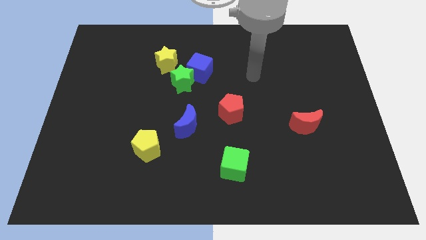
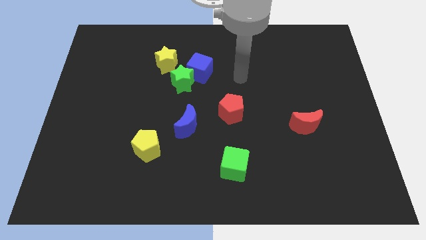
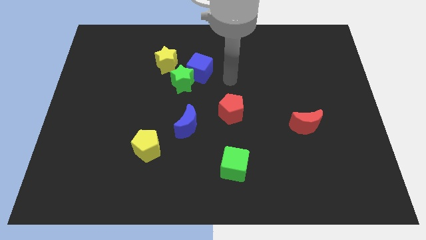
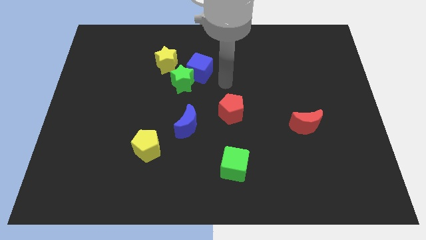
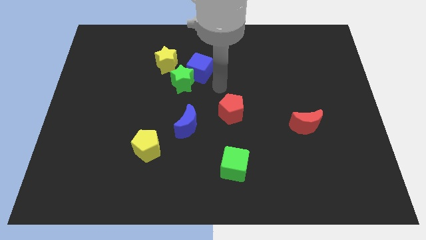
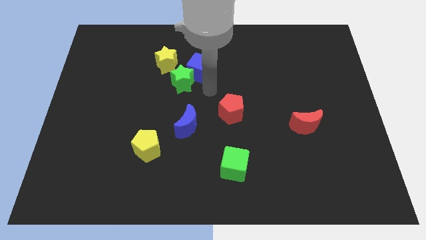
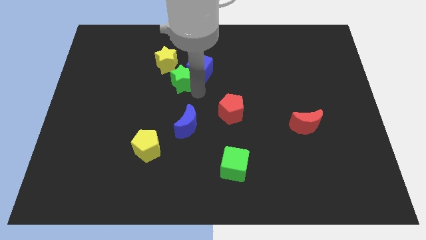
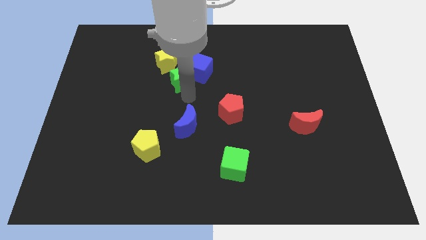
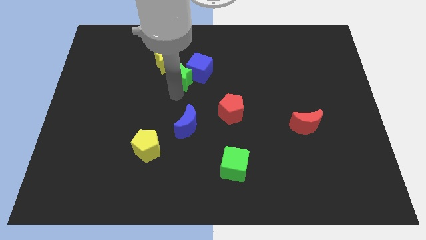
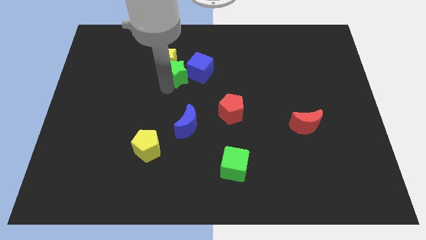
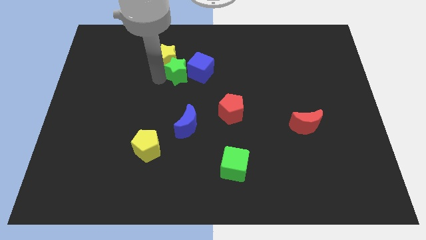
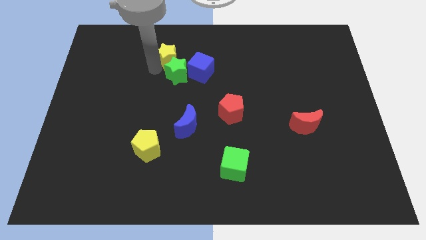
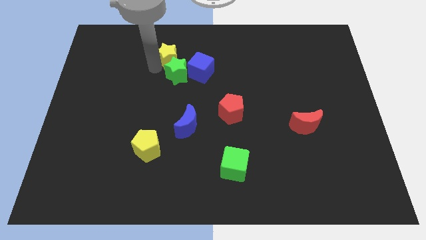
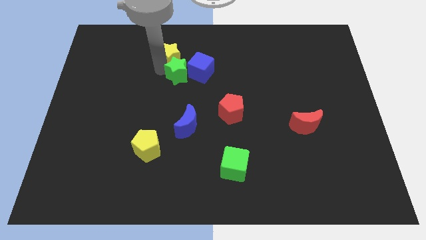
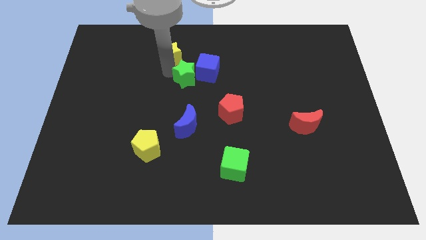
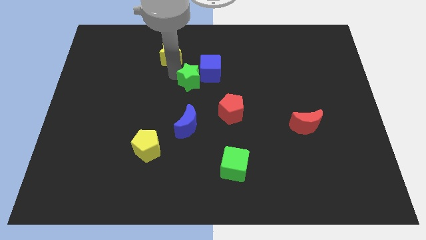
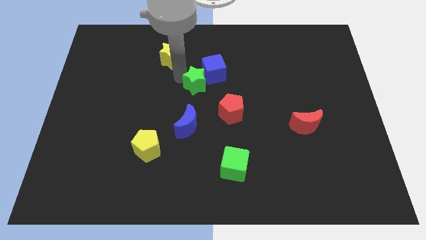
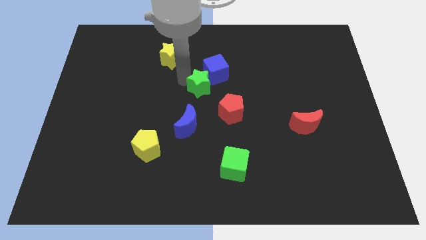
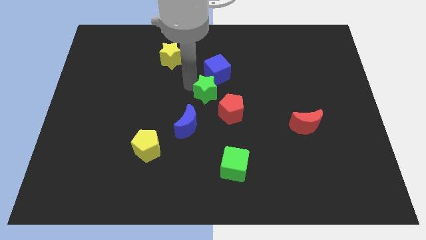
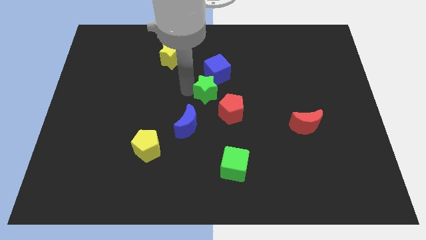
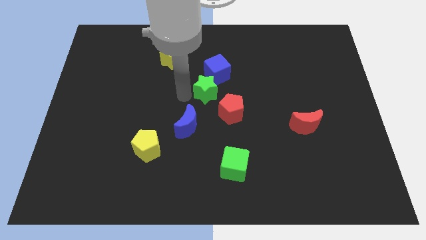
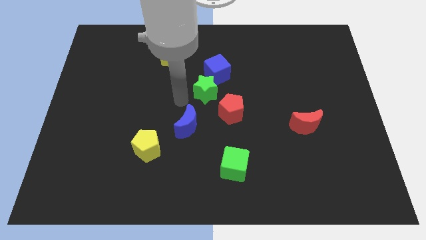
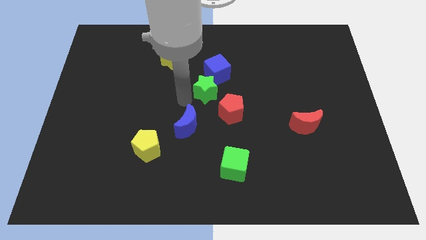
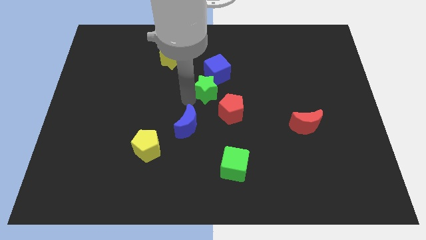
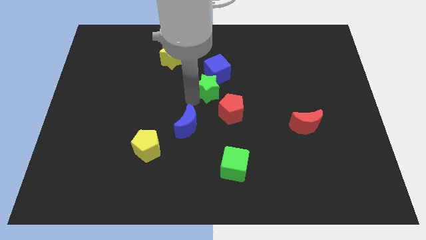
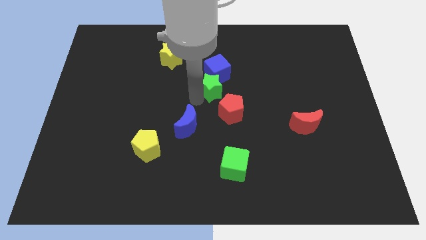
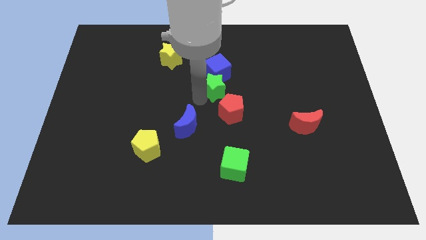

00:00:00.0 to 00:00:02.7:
slightly push the green star to the right

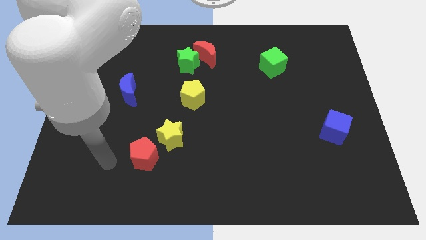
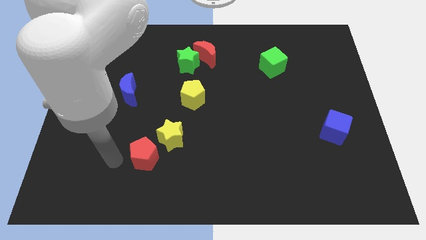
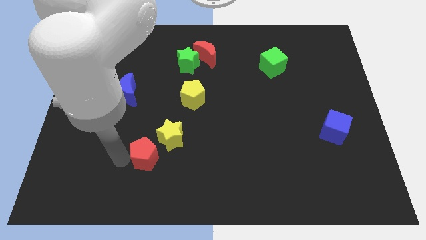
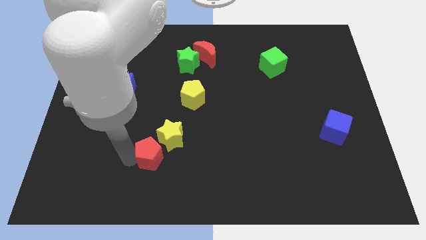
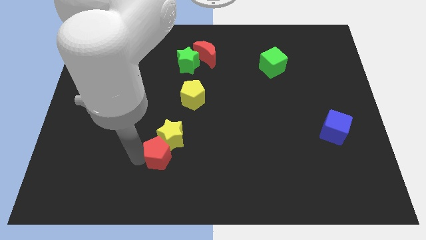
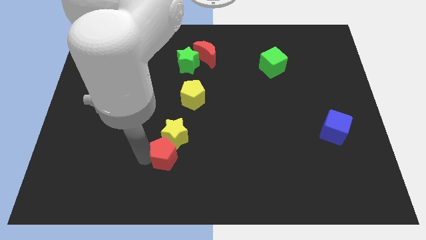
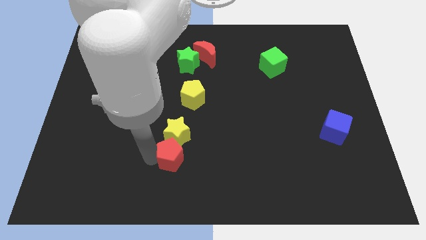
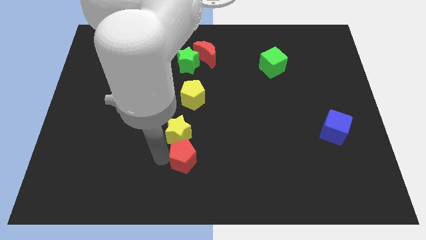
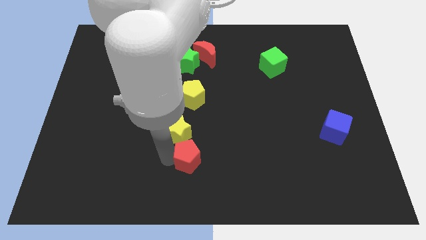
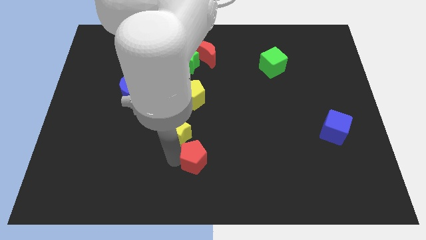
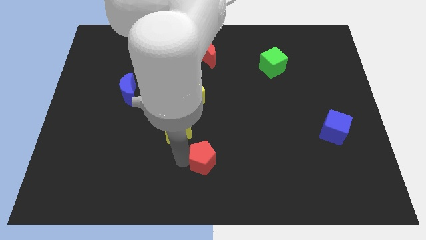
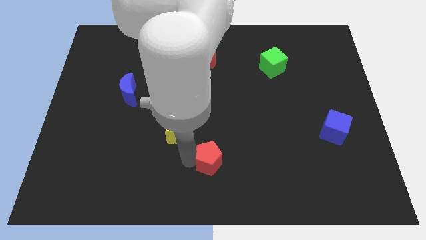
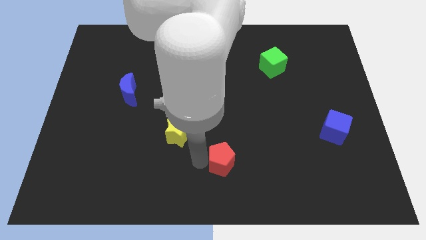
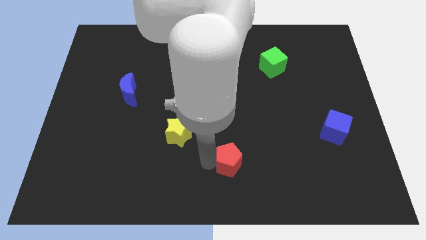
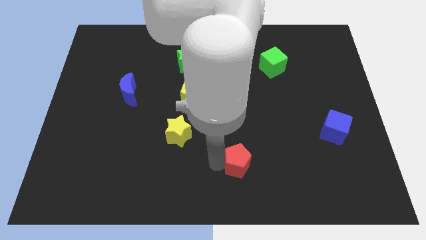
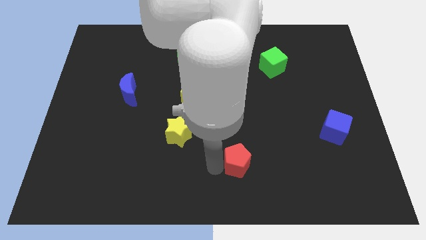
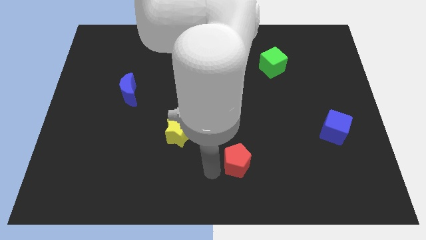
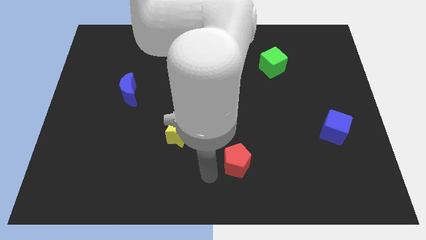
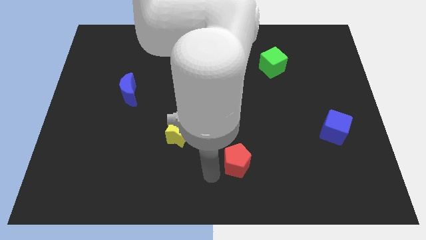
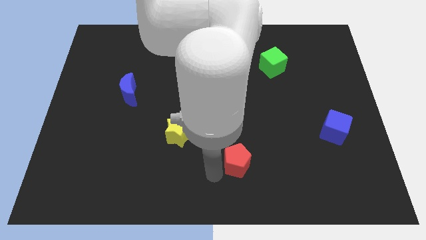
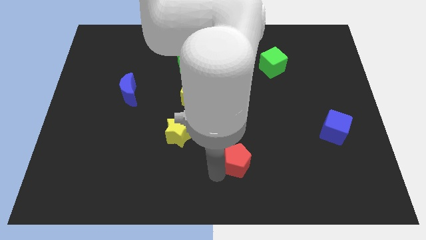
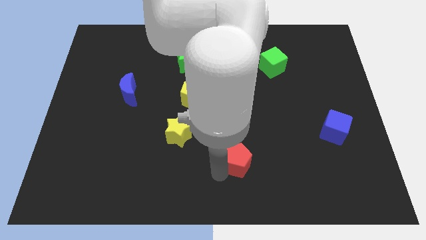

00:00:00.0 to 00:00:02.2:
slide the red pentagon to the right

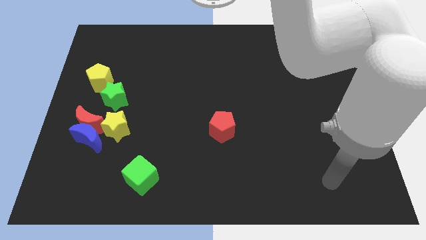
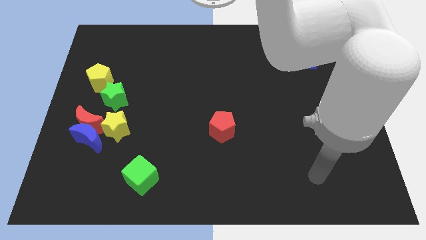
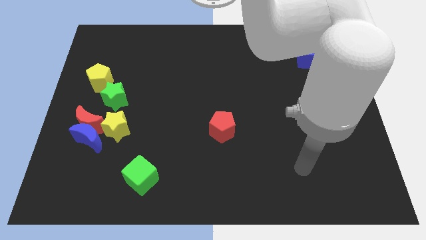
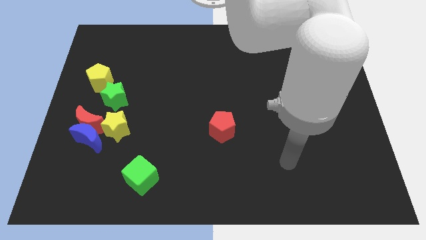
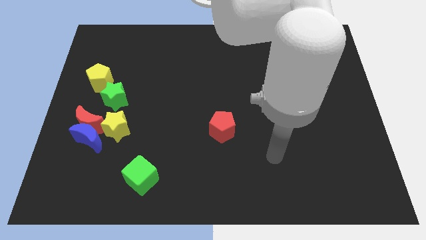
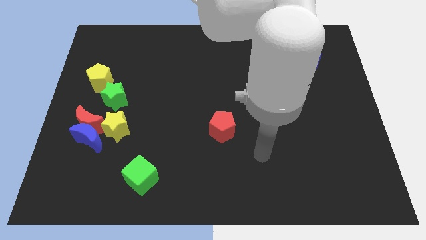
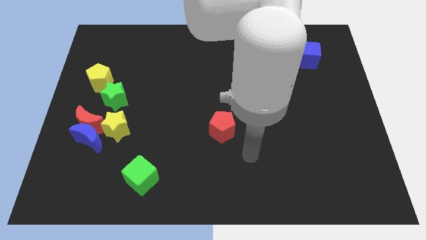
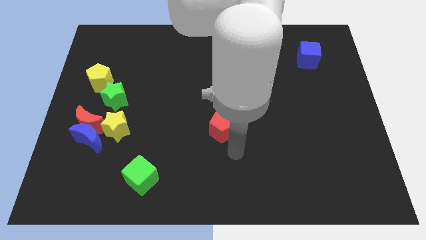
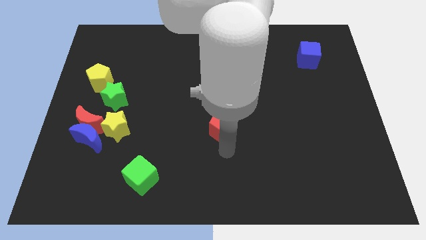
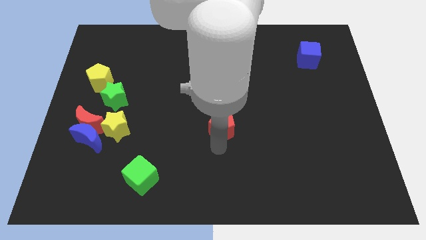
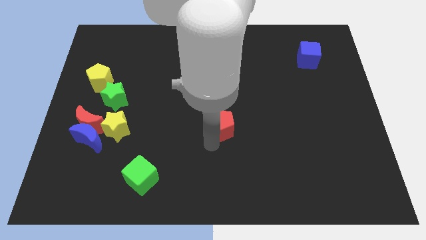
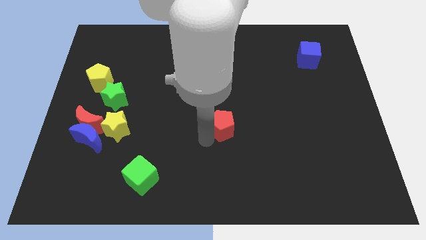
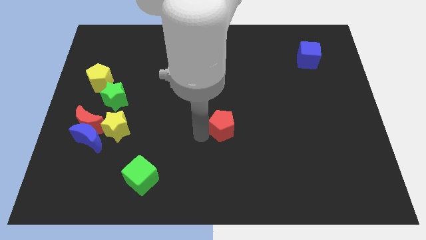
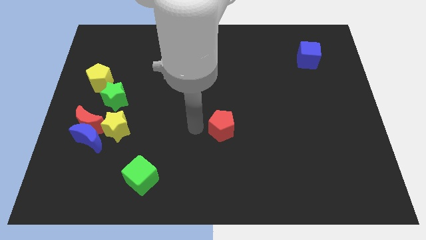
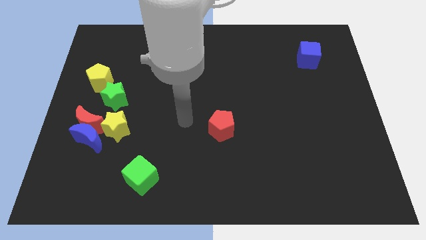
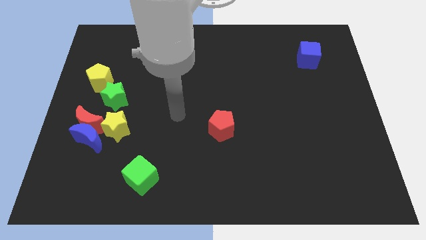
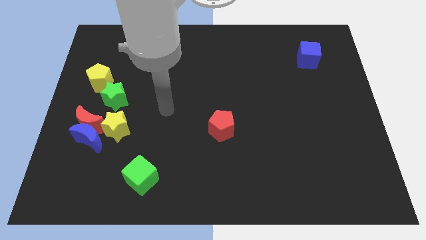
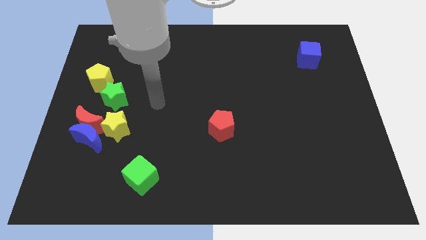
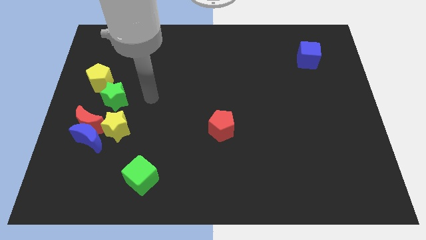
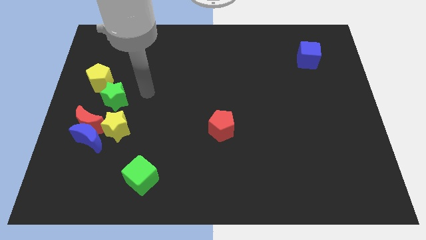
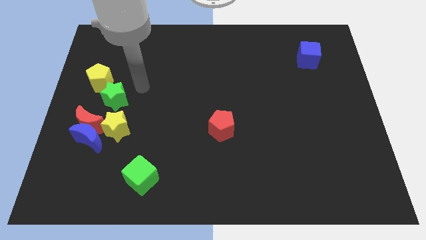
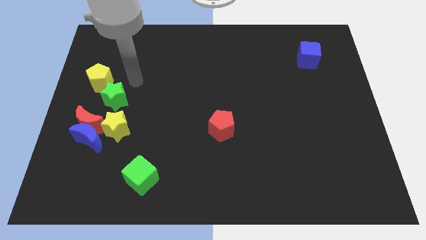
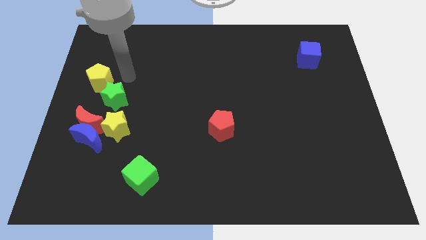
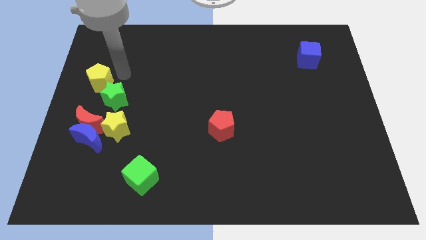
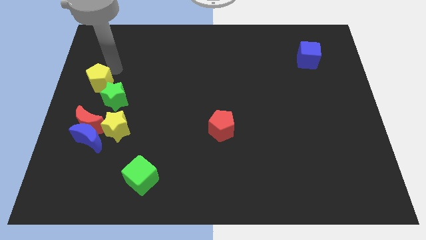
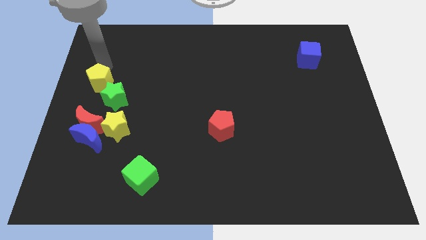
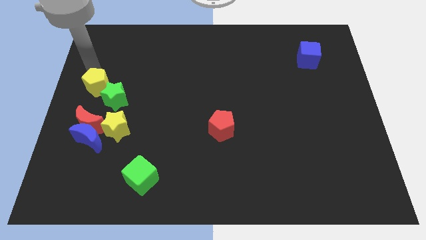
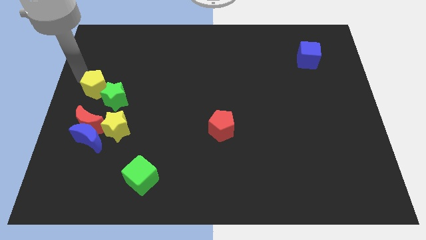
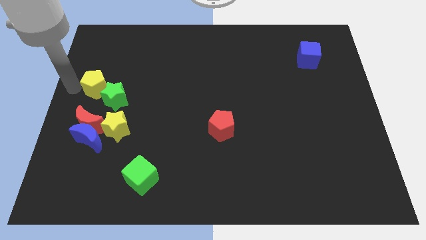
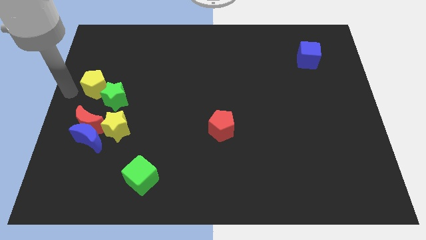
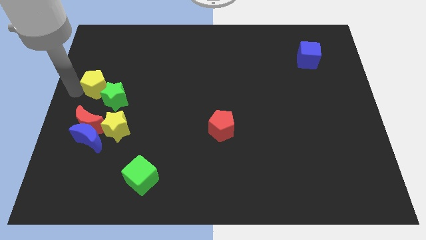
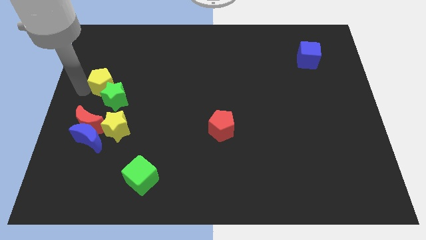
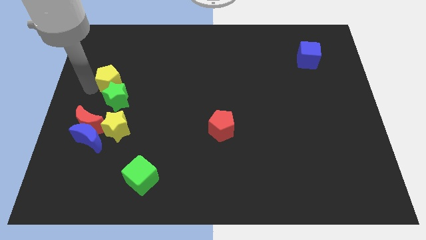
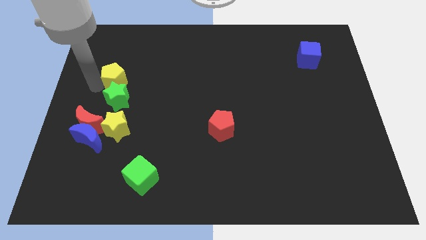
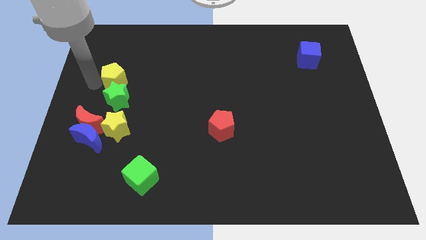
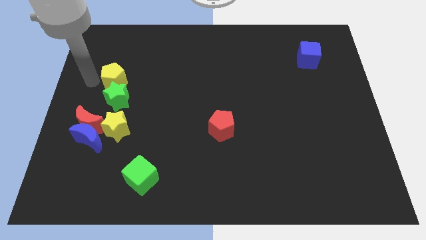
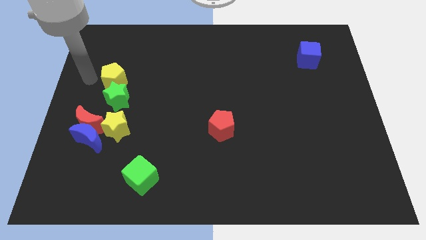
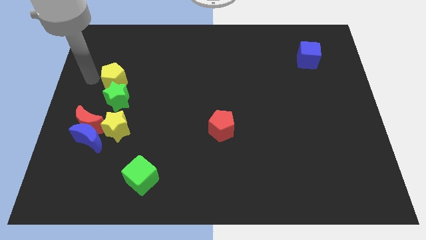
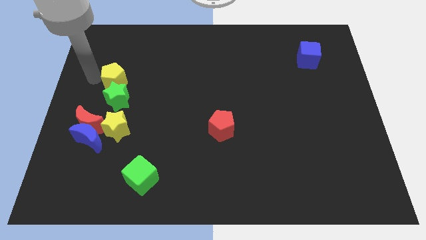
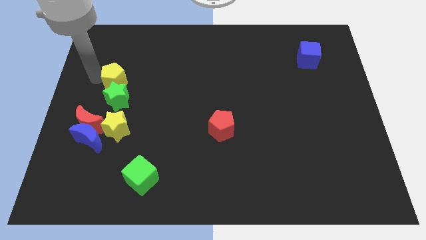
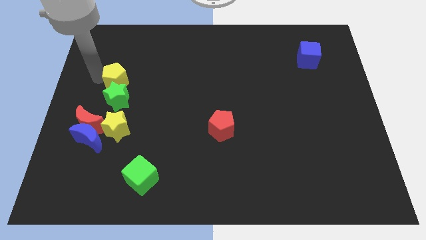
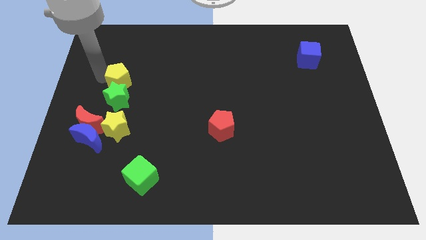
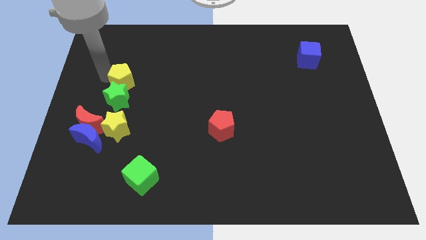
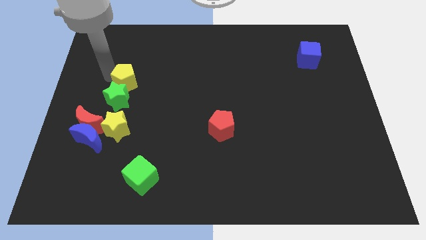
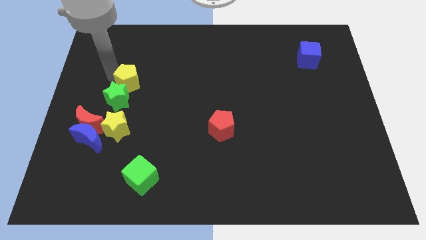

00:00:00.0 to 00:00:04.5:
push the yellow pentagon right a little
